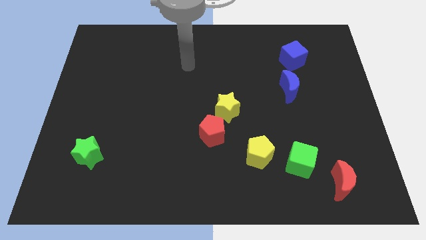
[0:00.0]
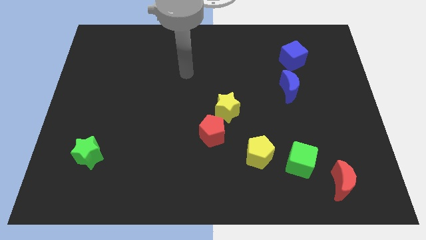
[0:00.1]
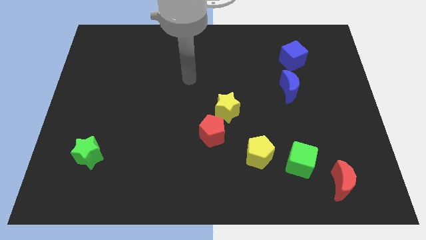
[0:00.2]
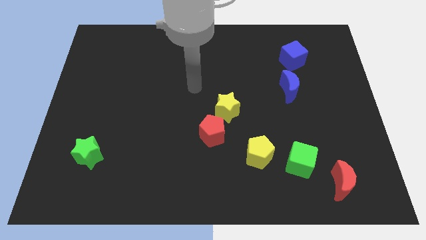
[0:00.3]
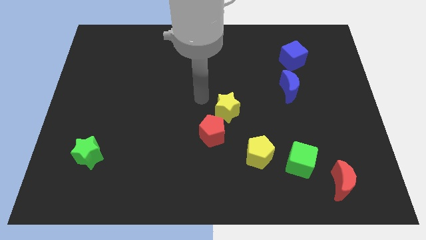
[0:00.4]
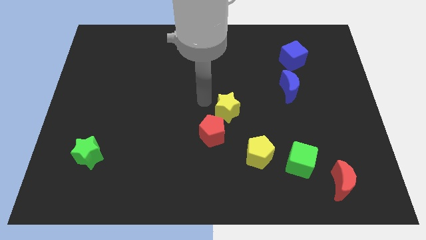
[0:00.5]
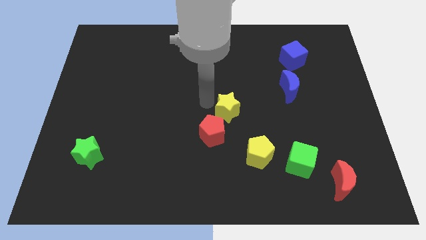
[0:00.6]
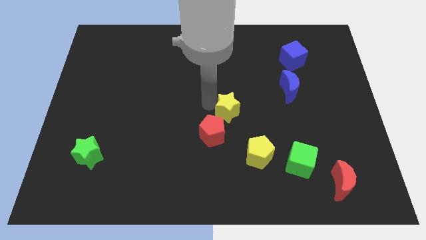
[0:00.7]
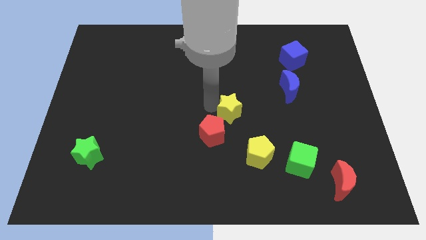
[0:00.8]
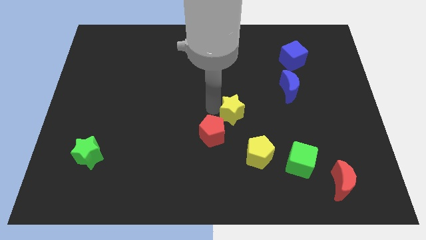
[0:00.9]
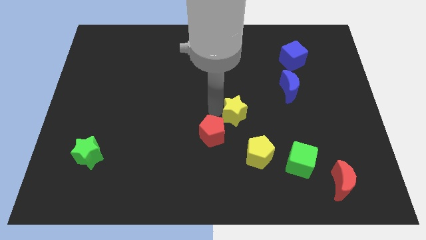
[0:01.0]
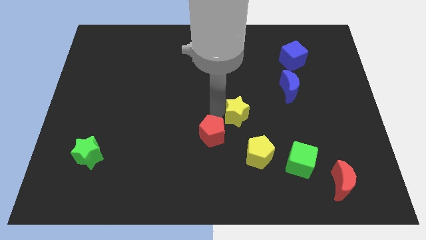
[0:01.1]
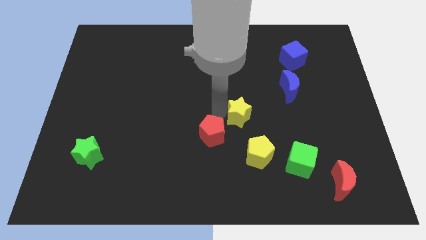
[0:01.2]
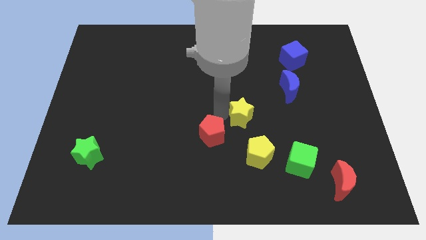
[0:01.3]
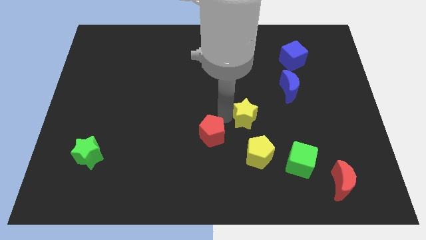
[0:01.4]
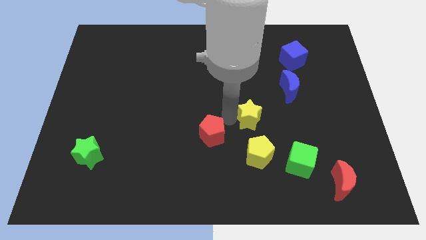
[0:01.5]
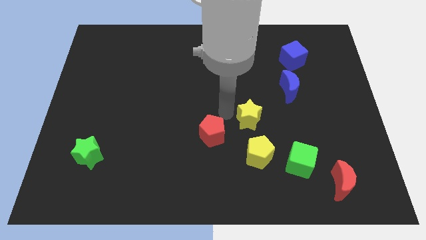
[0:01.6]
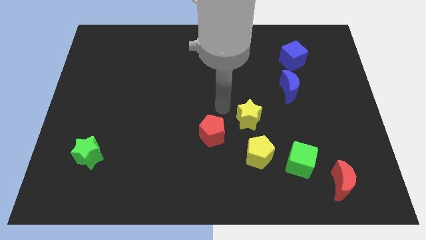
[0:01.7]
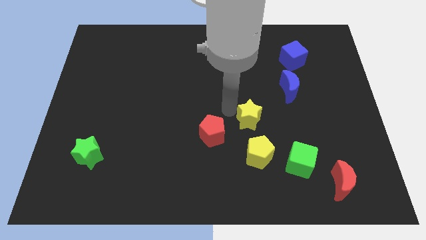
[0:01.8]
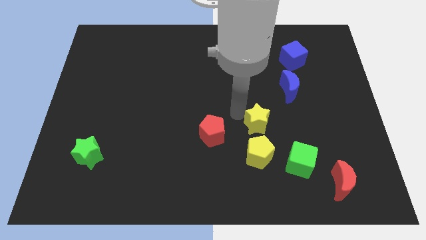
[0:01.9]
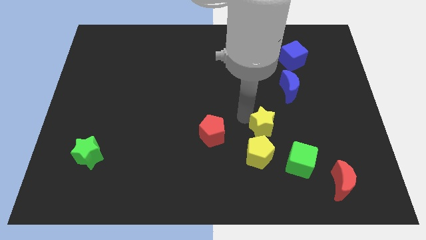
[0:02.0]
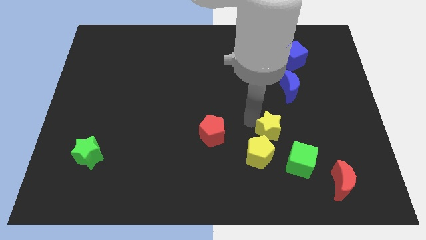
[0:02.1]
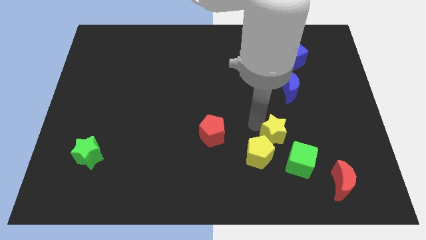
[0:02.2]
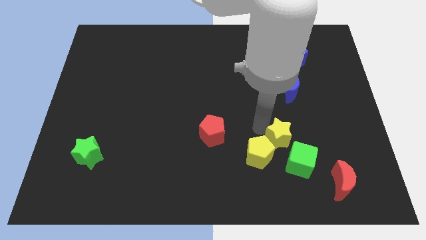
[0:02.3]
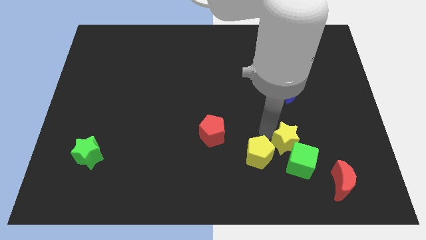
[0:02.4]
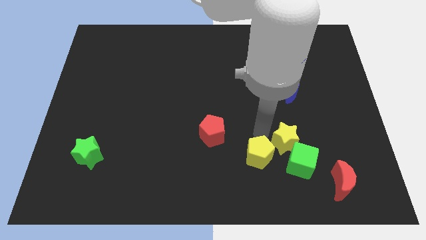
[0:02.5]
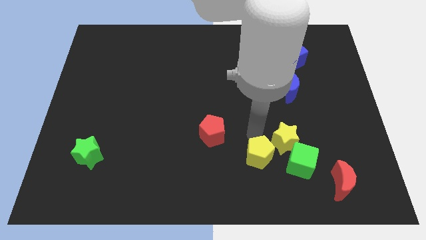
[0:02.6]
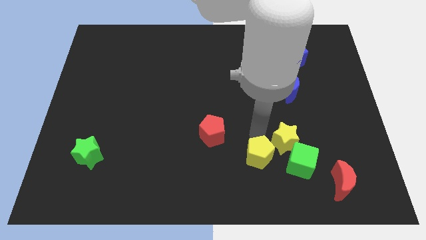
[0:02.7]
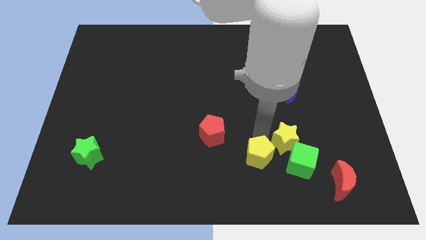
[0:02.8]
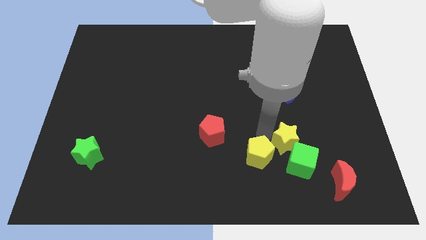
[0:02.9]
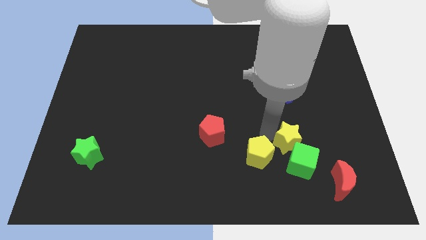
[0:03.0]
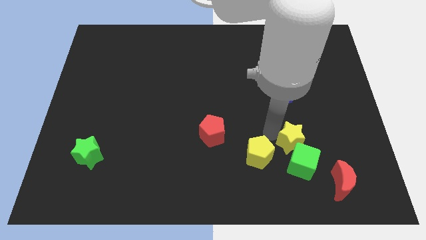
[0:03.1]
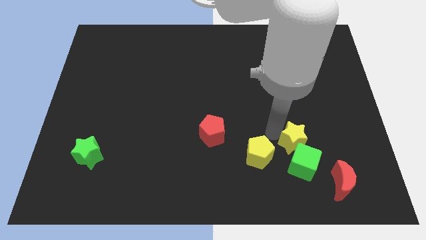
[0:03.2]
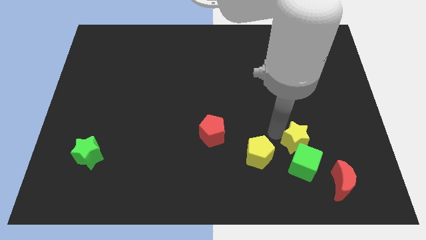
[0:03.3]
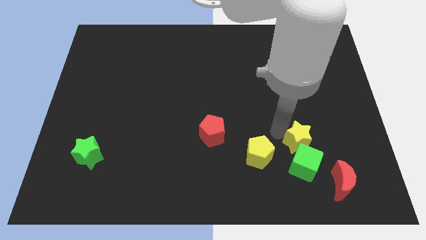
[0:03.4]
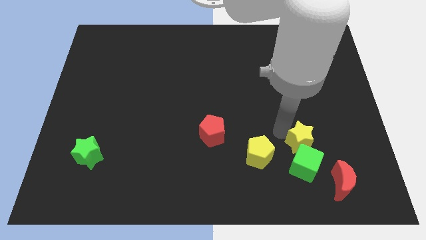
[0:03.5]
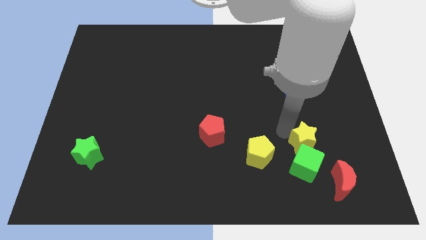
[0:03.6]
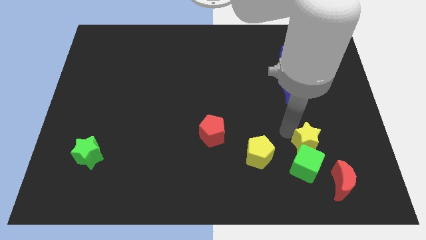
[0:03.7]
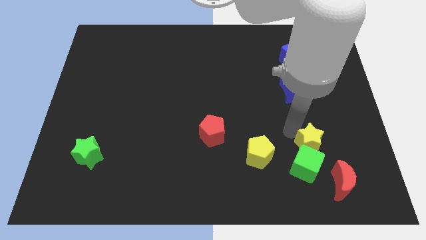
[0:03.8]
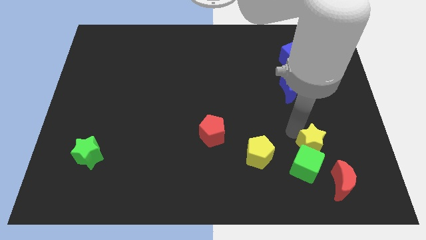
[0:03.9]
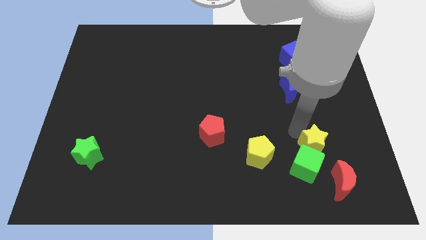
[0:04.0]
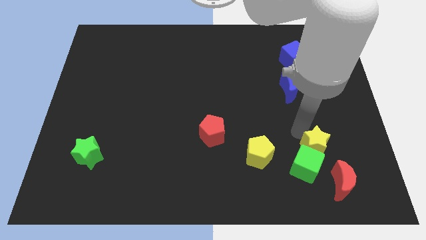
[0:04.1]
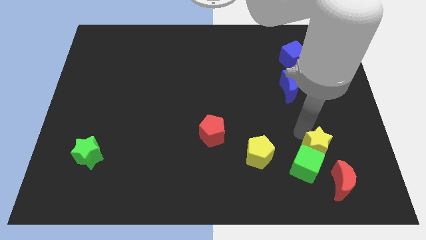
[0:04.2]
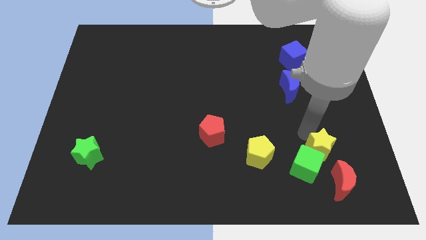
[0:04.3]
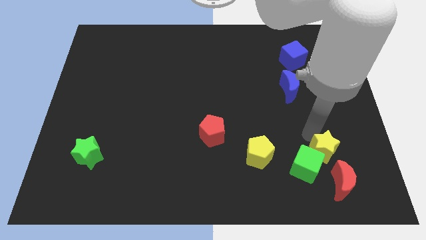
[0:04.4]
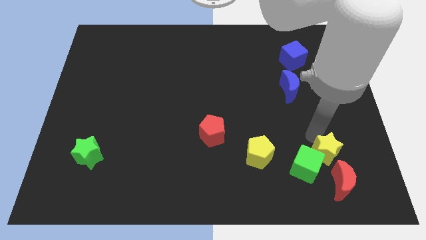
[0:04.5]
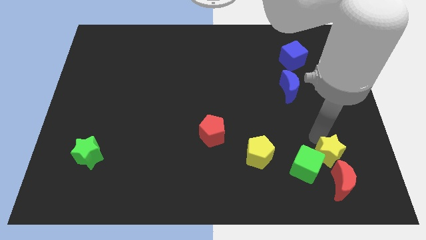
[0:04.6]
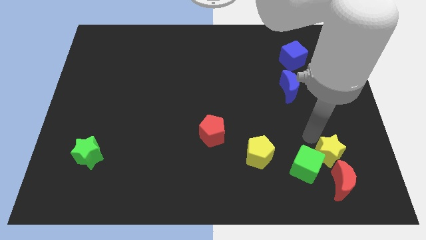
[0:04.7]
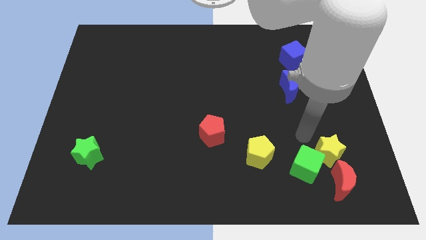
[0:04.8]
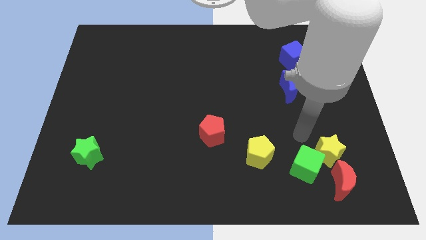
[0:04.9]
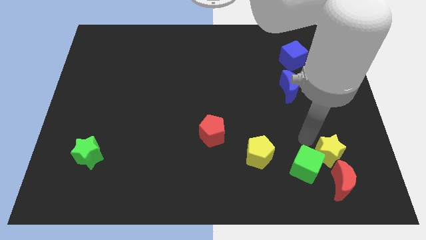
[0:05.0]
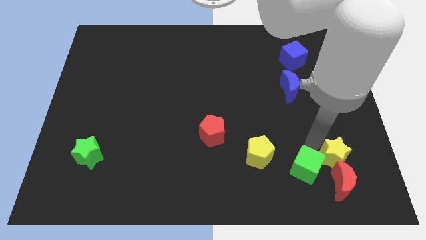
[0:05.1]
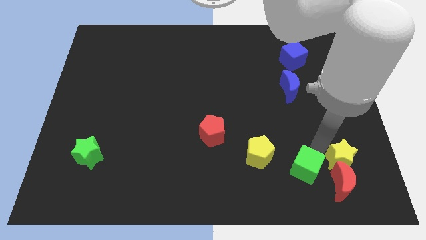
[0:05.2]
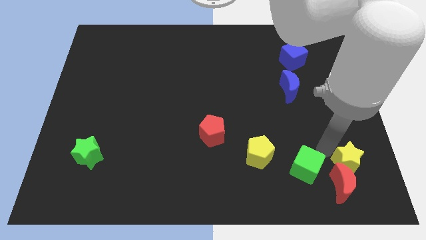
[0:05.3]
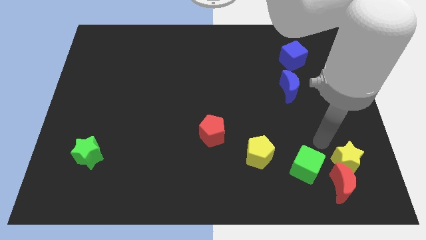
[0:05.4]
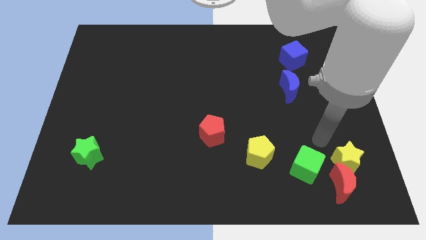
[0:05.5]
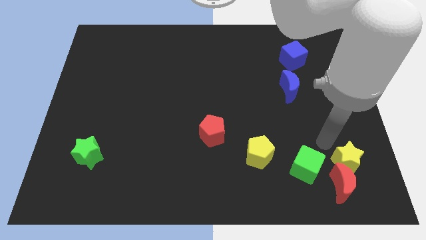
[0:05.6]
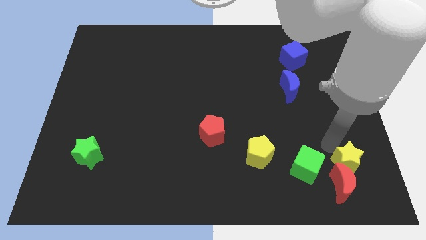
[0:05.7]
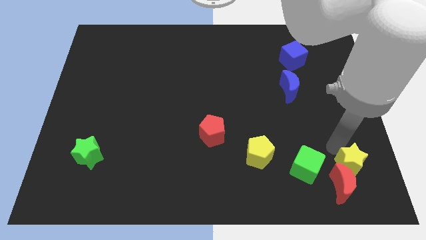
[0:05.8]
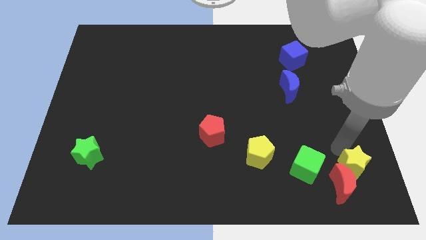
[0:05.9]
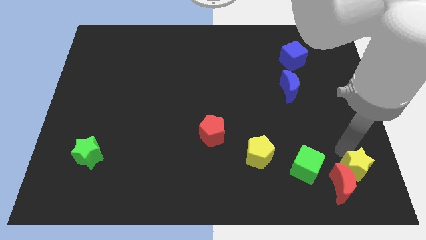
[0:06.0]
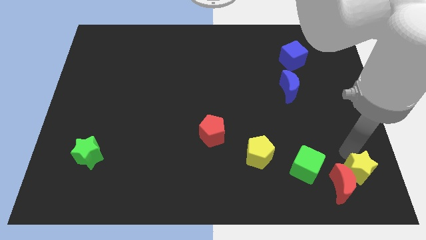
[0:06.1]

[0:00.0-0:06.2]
move the yellow star to the bottom right of the board
